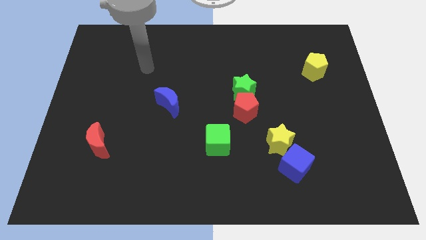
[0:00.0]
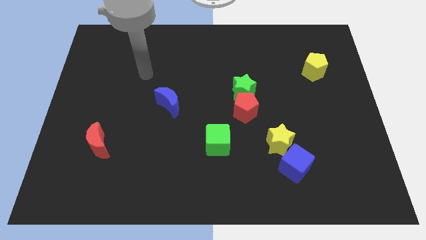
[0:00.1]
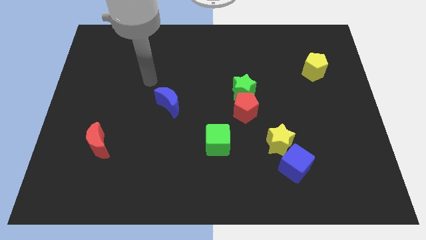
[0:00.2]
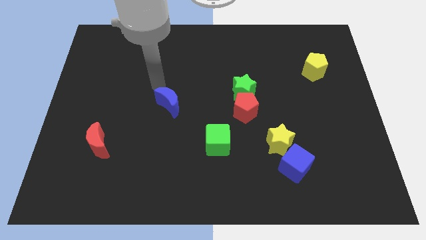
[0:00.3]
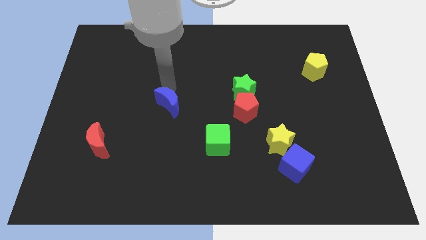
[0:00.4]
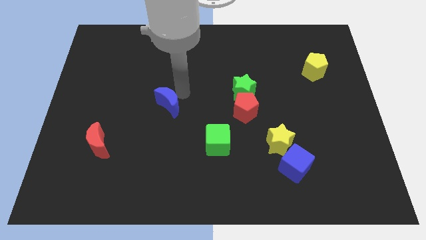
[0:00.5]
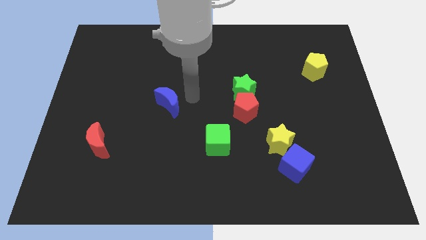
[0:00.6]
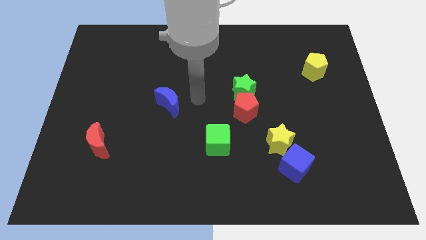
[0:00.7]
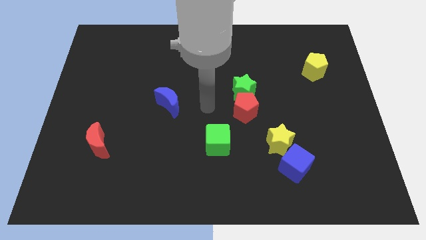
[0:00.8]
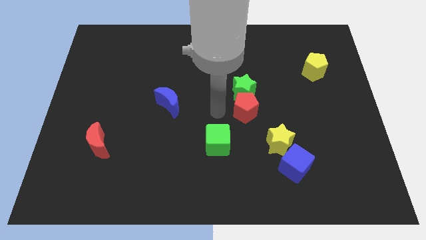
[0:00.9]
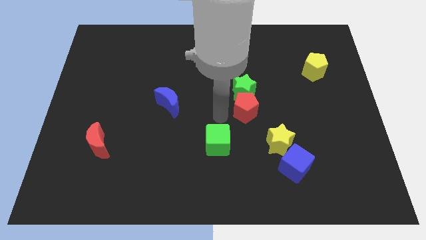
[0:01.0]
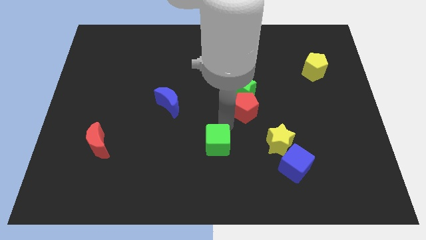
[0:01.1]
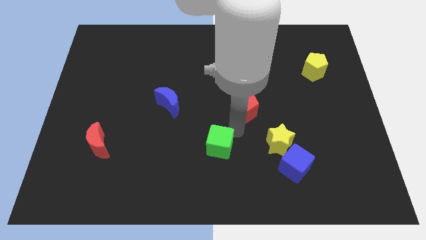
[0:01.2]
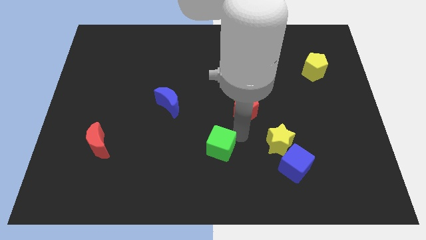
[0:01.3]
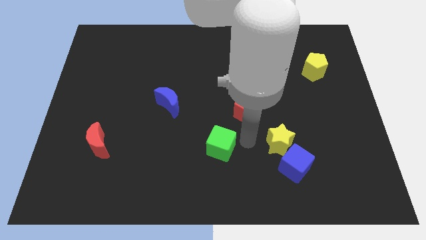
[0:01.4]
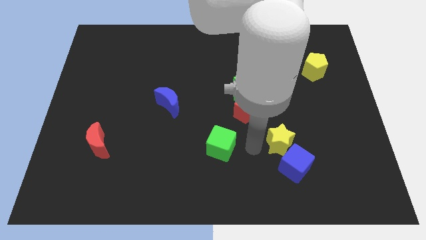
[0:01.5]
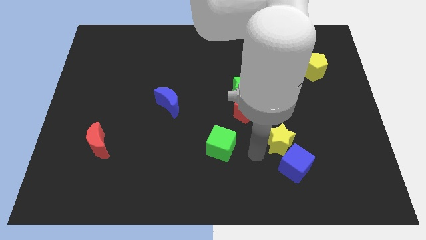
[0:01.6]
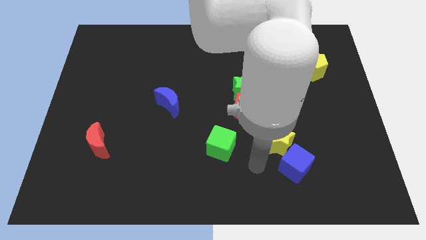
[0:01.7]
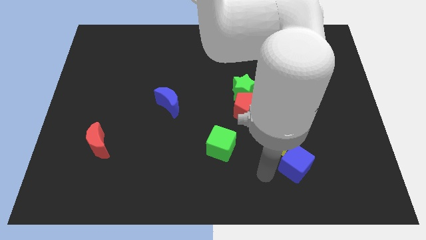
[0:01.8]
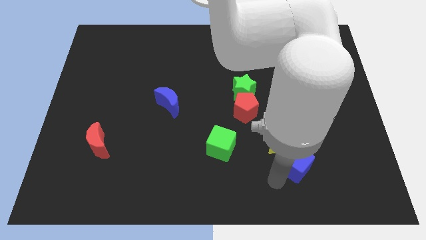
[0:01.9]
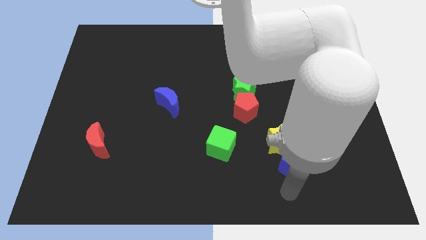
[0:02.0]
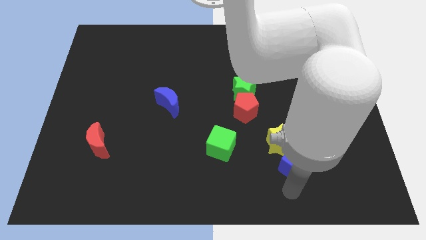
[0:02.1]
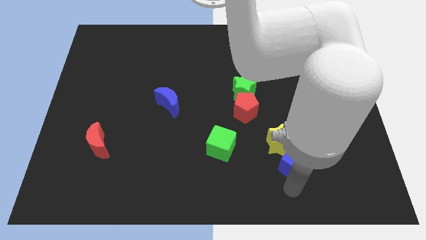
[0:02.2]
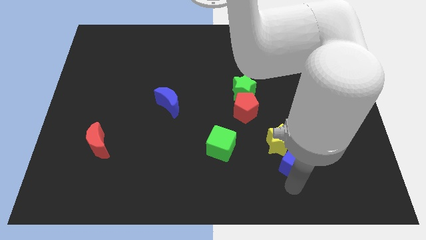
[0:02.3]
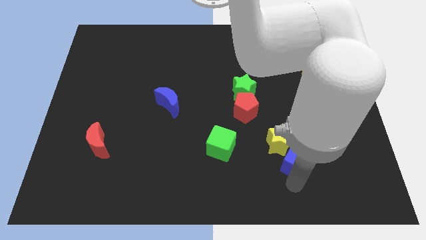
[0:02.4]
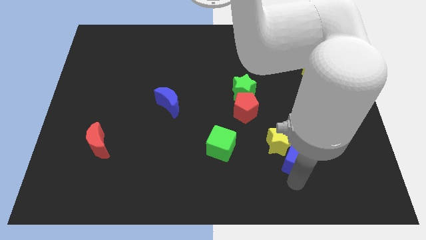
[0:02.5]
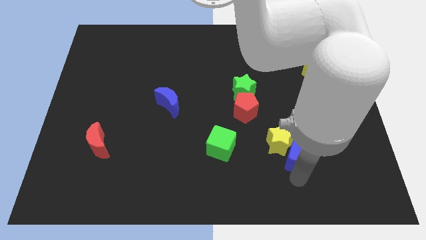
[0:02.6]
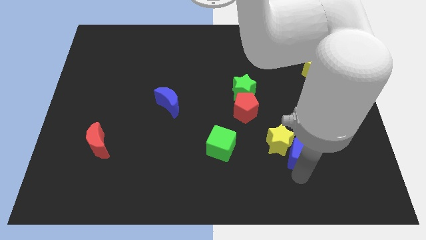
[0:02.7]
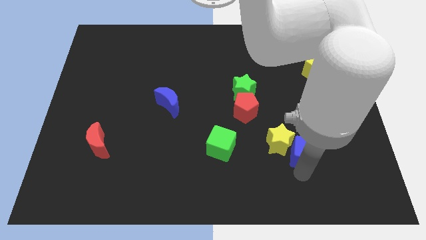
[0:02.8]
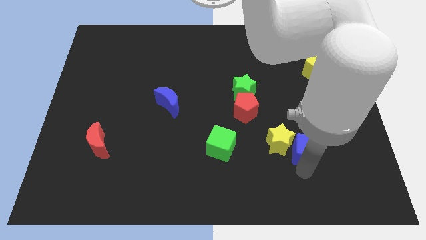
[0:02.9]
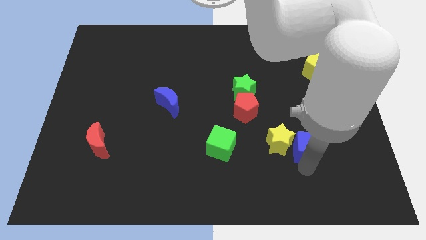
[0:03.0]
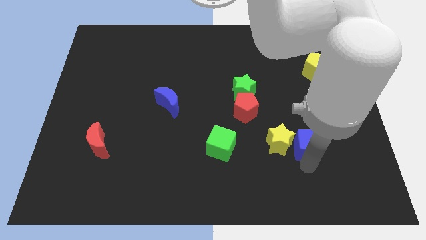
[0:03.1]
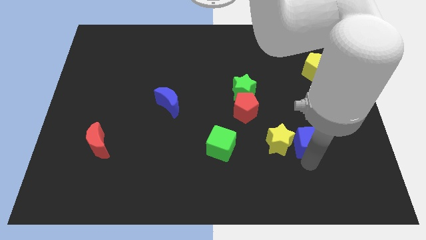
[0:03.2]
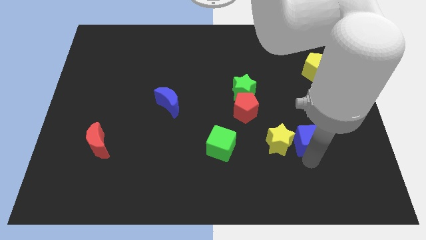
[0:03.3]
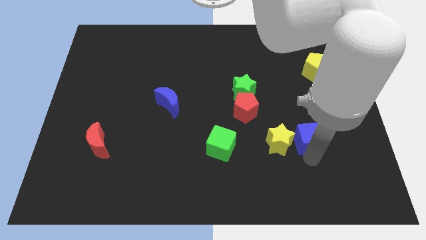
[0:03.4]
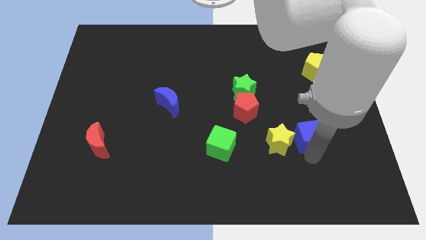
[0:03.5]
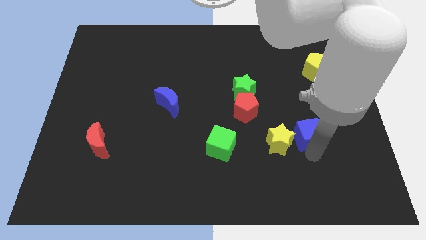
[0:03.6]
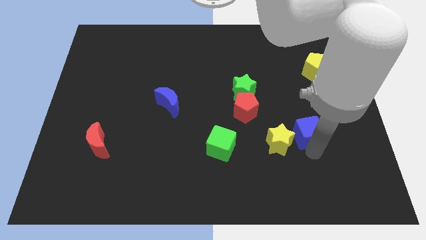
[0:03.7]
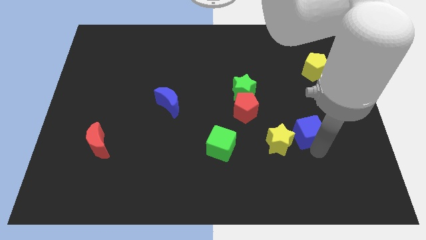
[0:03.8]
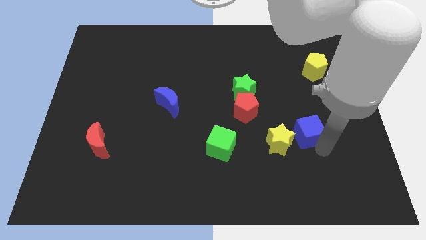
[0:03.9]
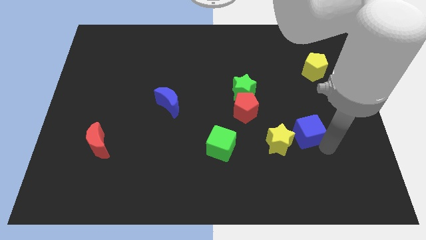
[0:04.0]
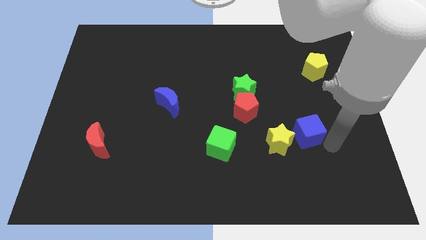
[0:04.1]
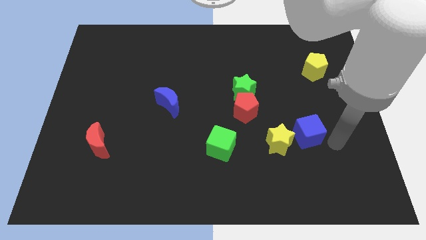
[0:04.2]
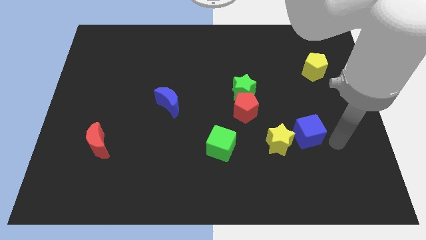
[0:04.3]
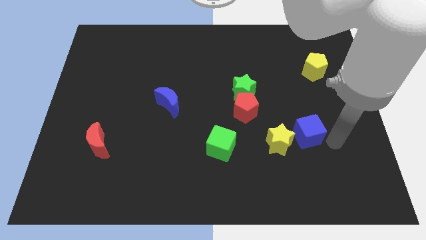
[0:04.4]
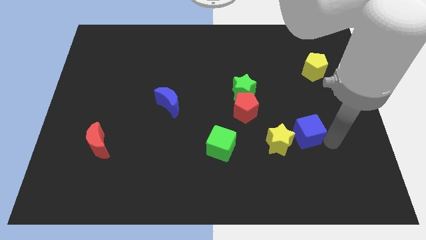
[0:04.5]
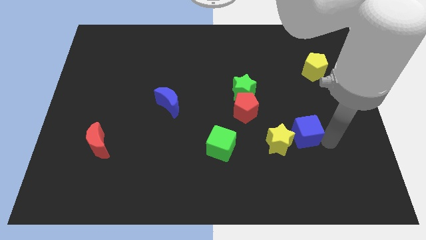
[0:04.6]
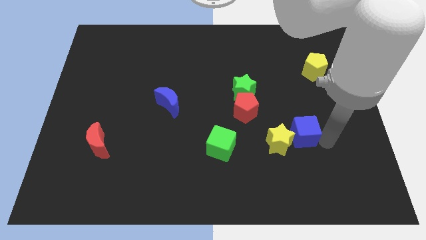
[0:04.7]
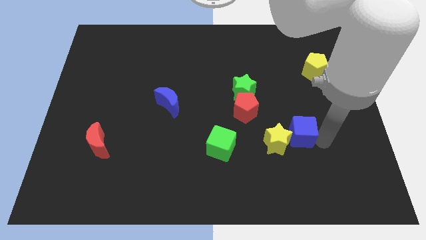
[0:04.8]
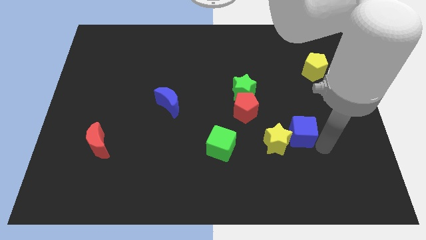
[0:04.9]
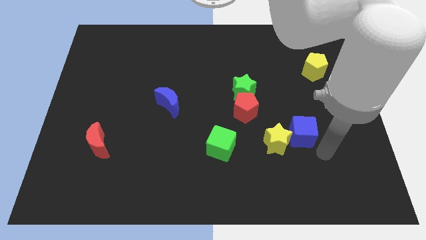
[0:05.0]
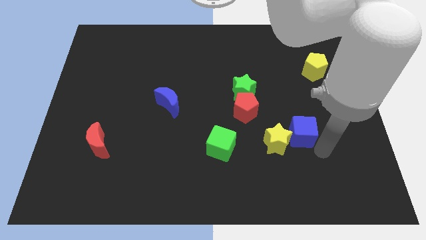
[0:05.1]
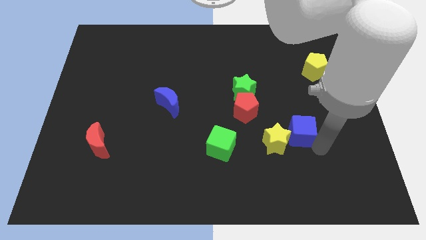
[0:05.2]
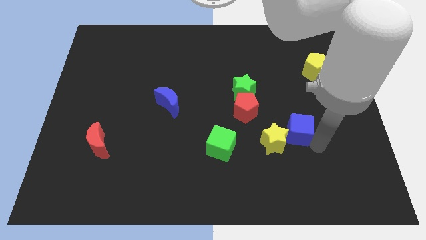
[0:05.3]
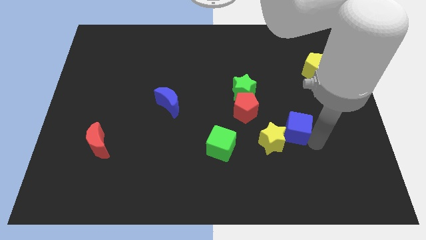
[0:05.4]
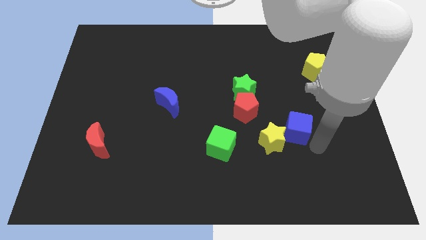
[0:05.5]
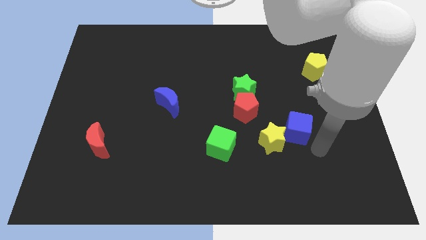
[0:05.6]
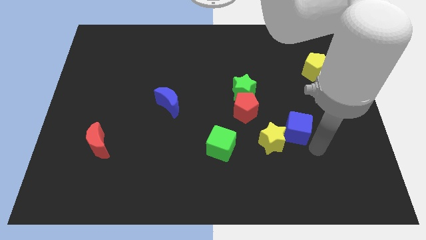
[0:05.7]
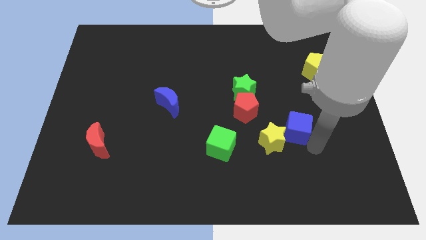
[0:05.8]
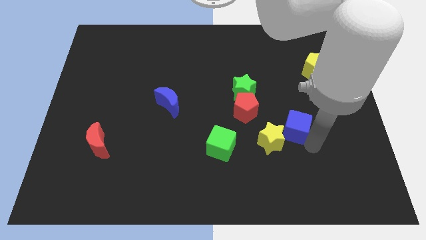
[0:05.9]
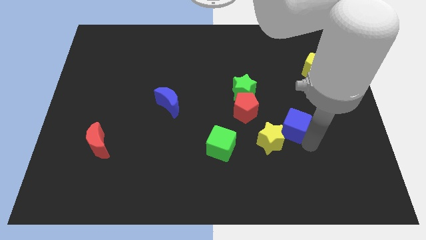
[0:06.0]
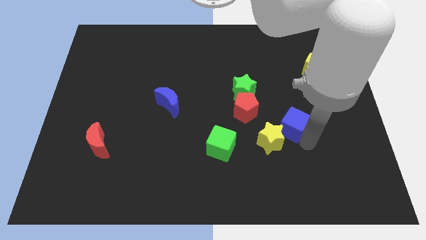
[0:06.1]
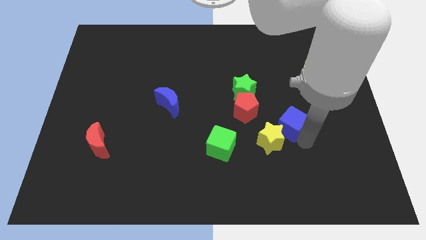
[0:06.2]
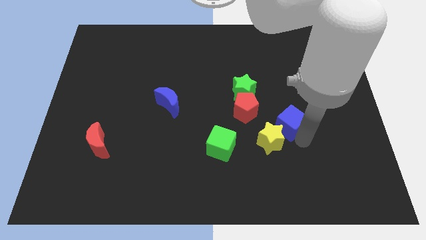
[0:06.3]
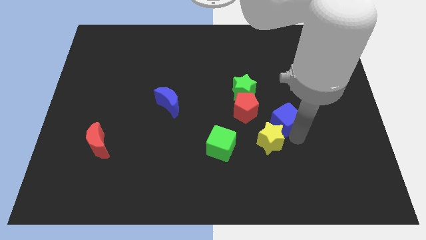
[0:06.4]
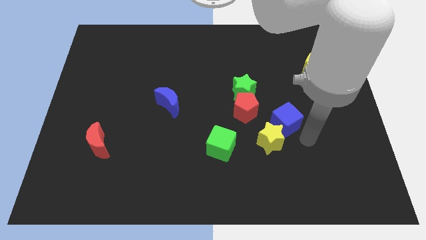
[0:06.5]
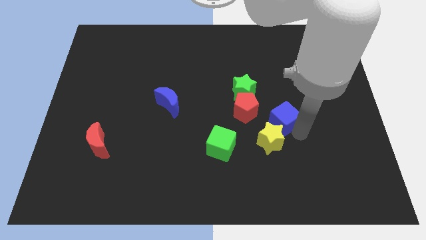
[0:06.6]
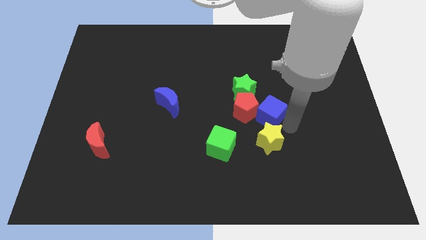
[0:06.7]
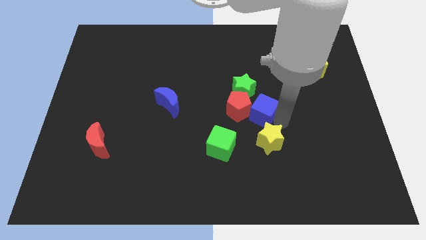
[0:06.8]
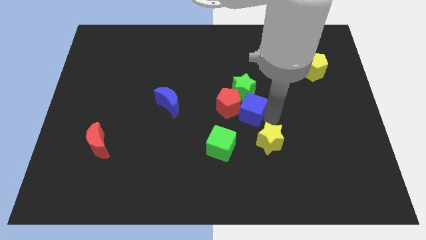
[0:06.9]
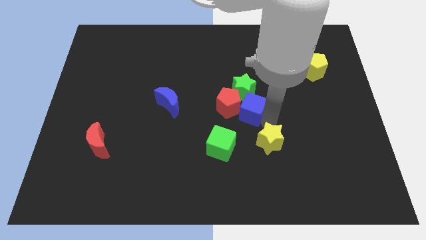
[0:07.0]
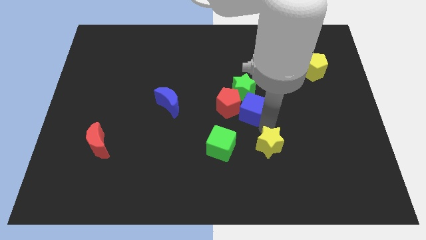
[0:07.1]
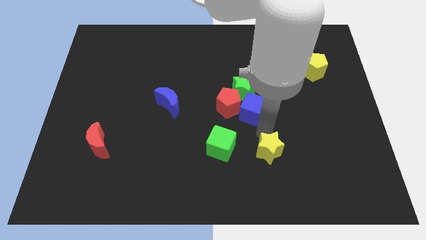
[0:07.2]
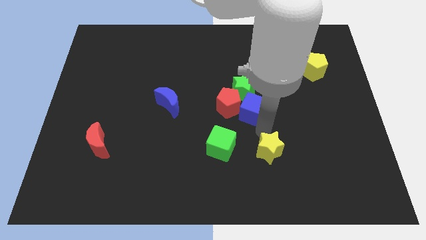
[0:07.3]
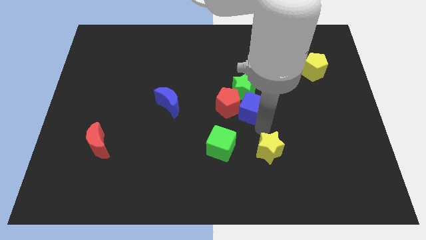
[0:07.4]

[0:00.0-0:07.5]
put the blue cube next to the green star

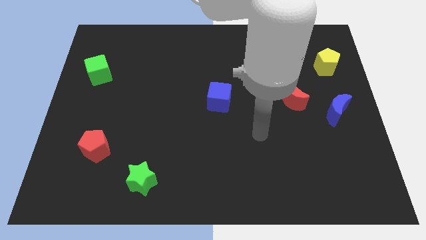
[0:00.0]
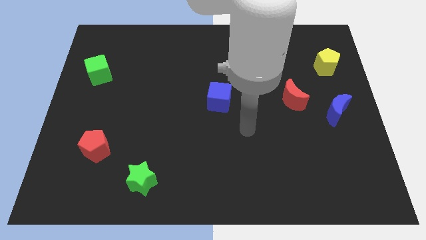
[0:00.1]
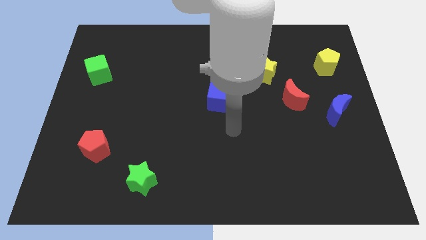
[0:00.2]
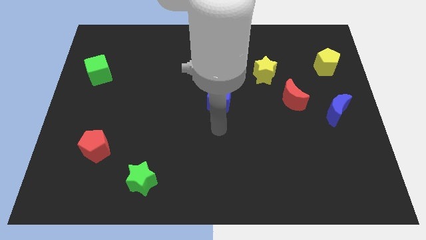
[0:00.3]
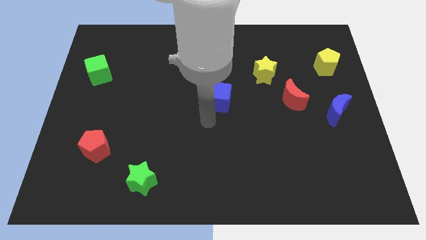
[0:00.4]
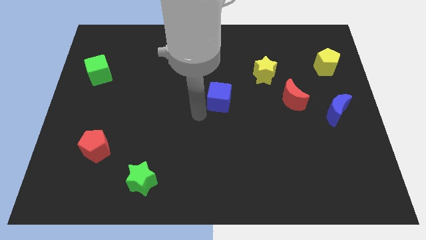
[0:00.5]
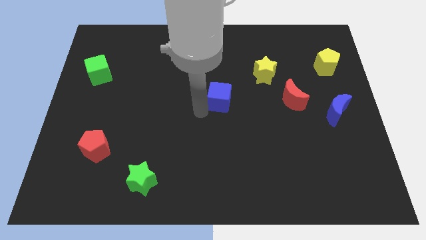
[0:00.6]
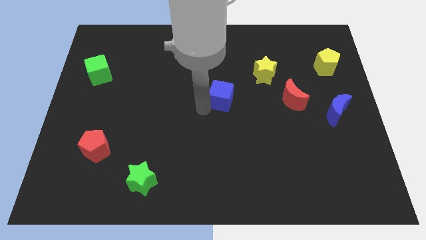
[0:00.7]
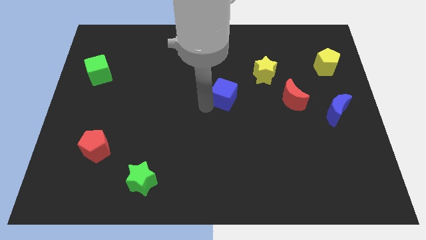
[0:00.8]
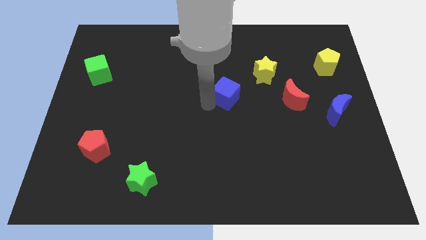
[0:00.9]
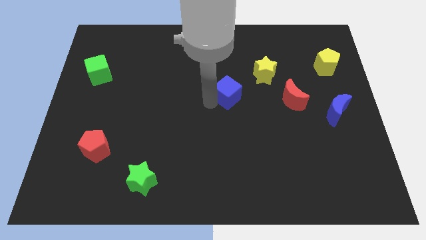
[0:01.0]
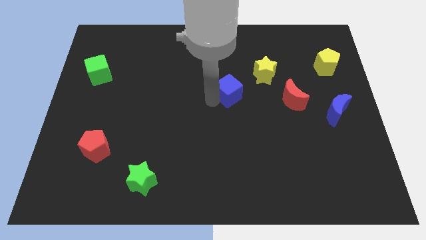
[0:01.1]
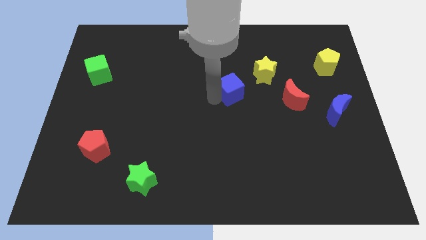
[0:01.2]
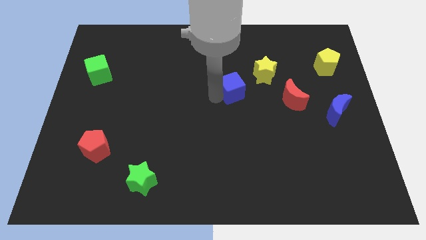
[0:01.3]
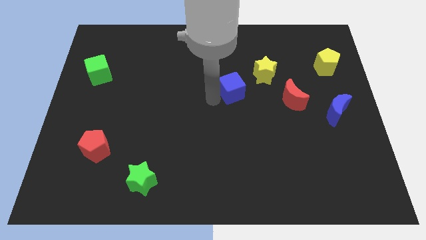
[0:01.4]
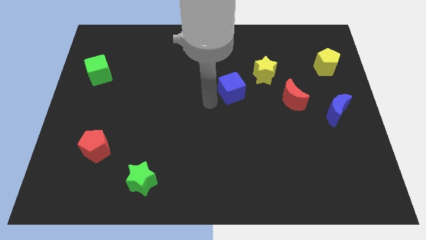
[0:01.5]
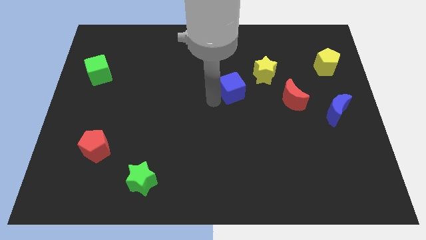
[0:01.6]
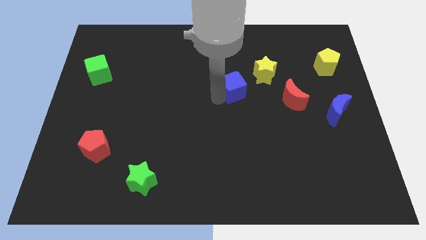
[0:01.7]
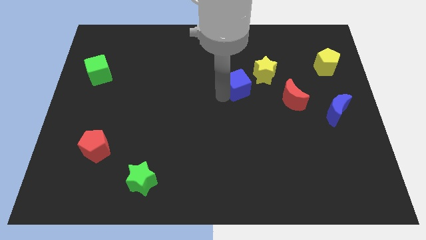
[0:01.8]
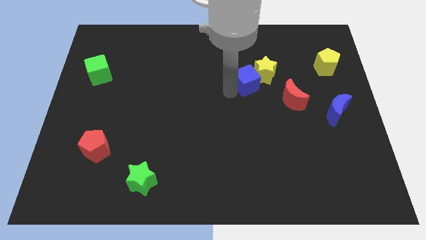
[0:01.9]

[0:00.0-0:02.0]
slide the blue cube to the yellow star
